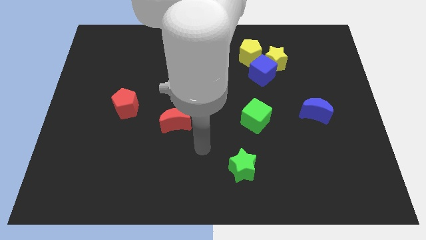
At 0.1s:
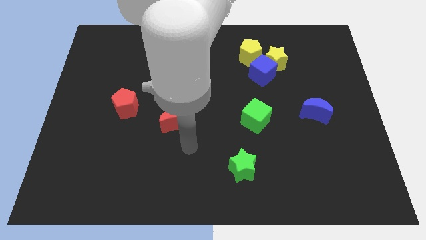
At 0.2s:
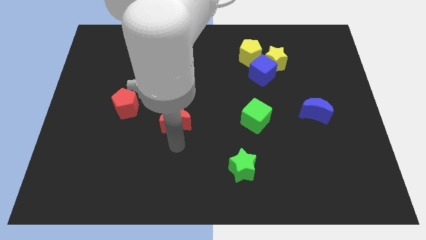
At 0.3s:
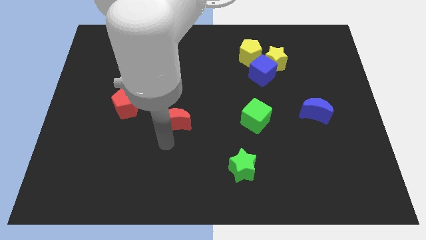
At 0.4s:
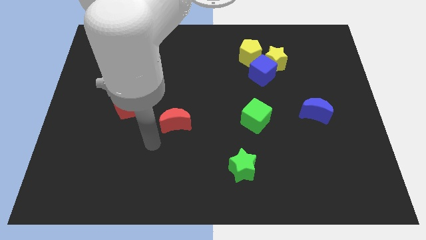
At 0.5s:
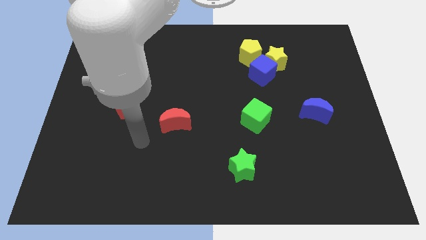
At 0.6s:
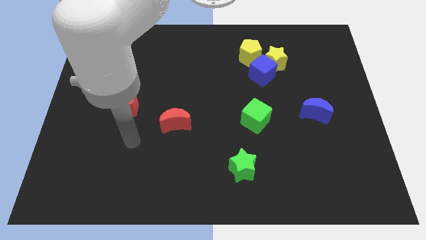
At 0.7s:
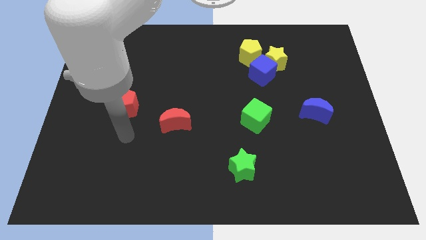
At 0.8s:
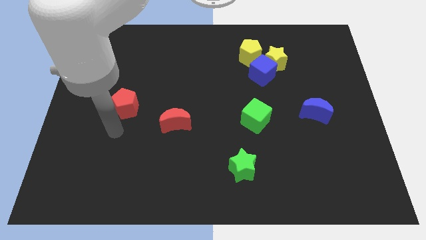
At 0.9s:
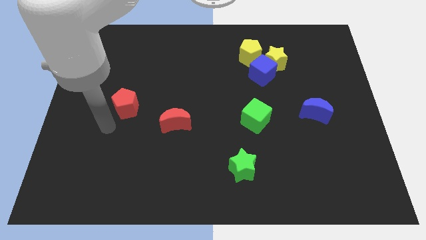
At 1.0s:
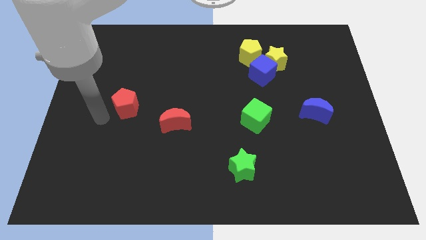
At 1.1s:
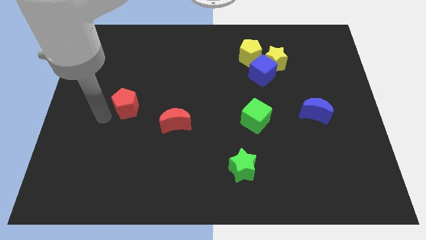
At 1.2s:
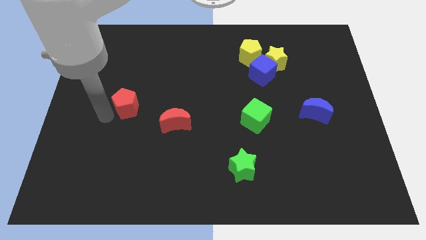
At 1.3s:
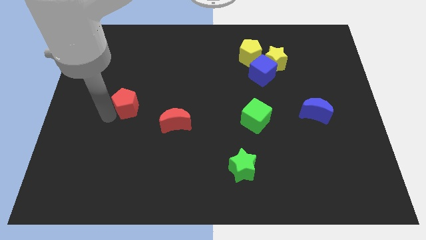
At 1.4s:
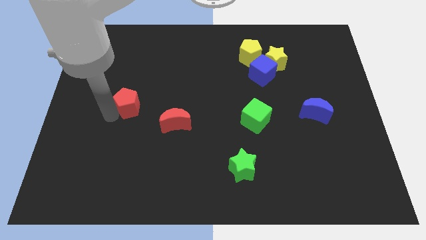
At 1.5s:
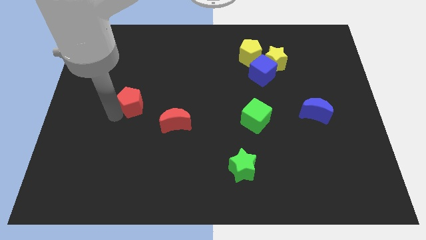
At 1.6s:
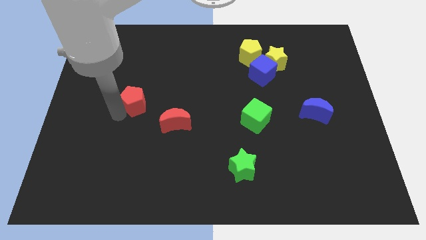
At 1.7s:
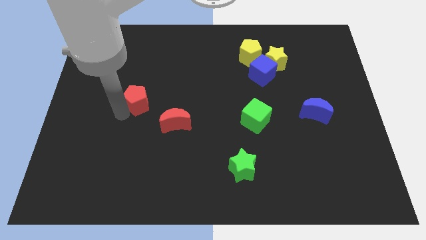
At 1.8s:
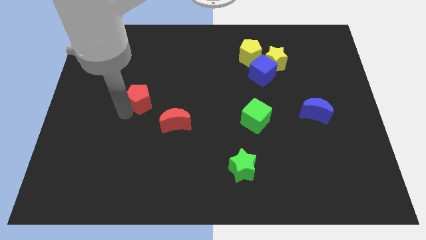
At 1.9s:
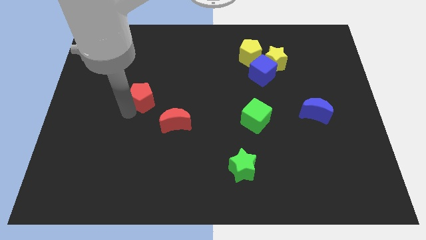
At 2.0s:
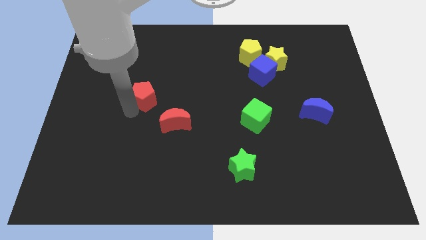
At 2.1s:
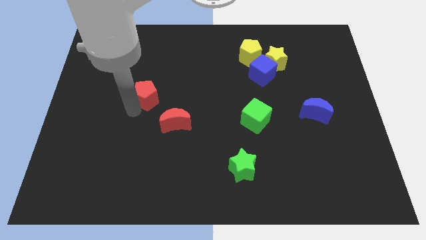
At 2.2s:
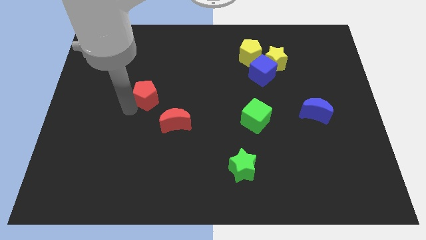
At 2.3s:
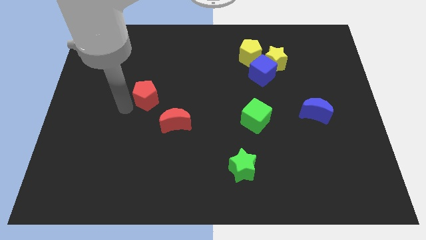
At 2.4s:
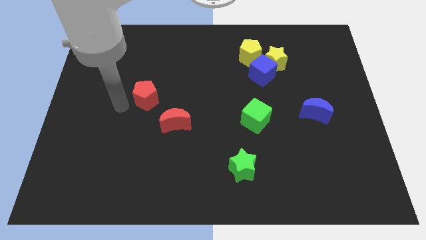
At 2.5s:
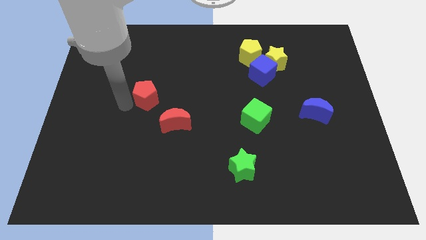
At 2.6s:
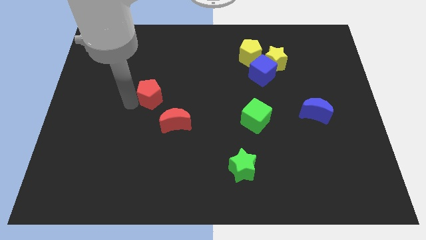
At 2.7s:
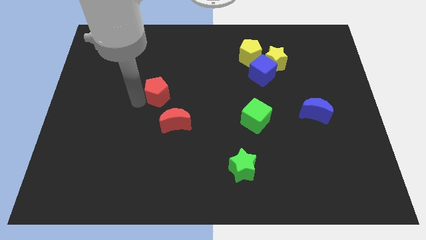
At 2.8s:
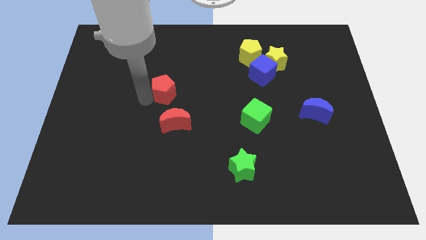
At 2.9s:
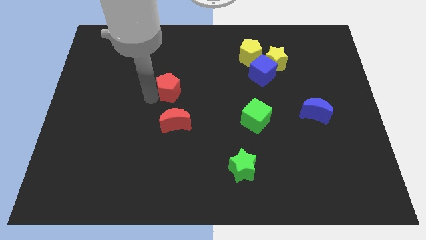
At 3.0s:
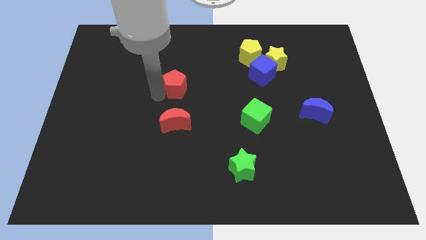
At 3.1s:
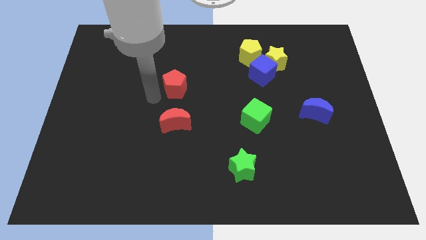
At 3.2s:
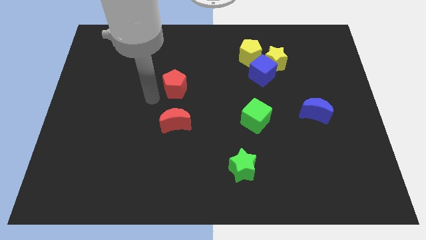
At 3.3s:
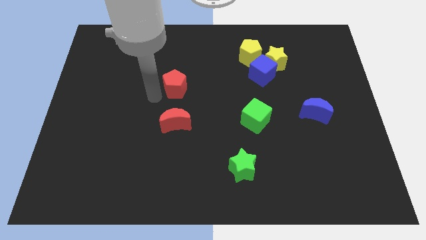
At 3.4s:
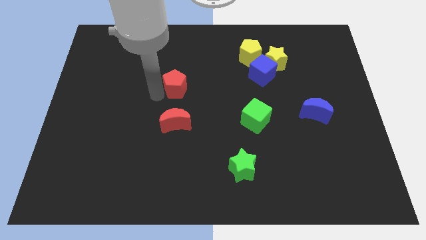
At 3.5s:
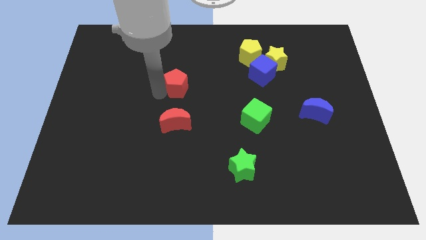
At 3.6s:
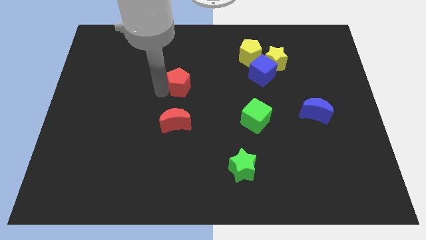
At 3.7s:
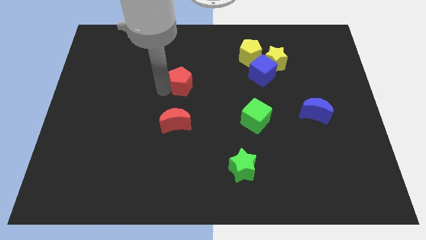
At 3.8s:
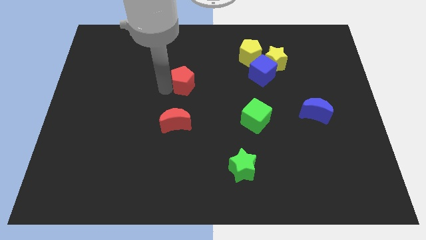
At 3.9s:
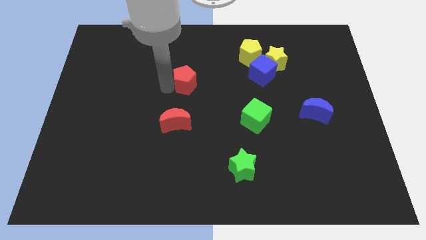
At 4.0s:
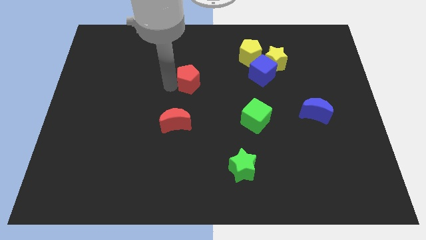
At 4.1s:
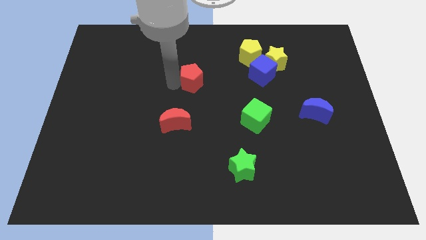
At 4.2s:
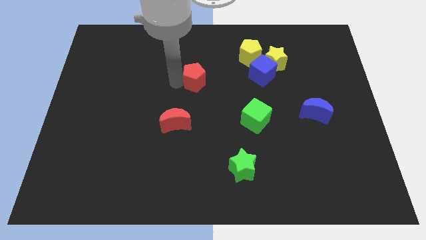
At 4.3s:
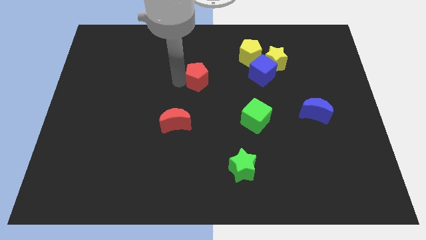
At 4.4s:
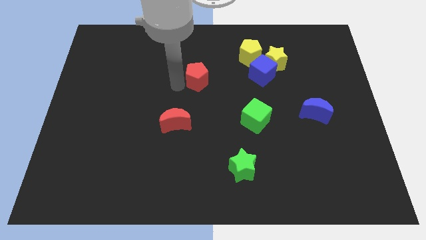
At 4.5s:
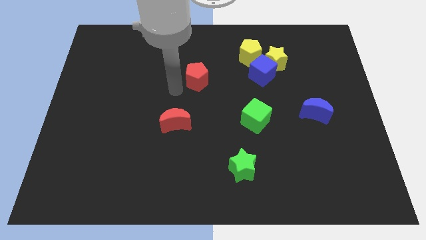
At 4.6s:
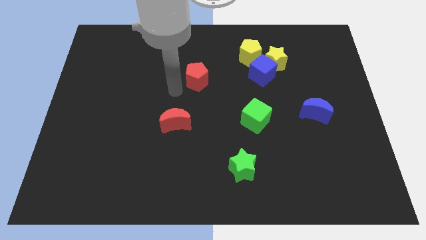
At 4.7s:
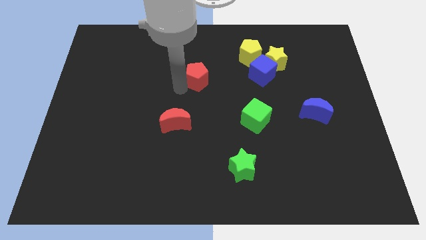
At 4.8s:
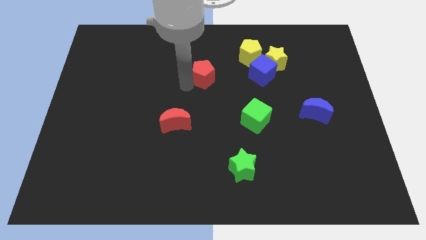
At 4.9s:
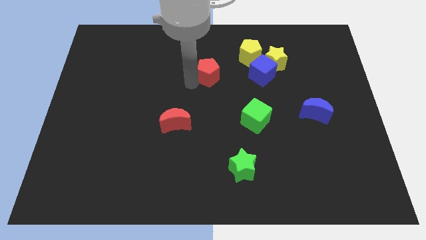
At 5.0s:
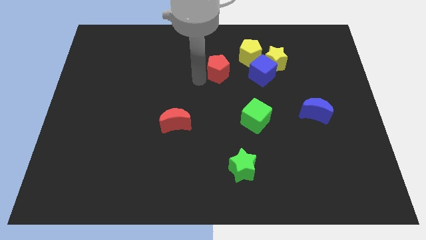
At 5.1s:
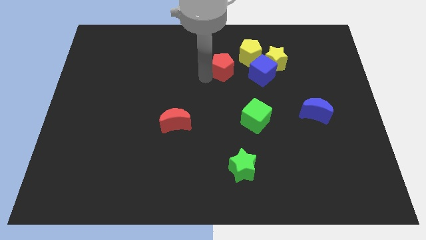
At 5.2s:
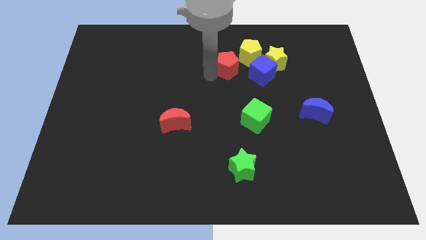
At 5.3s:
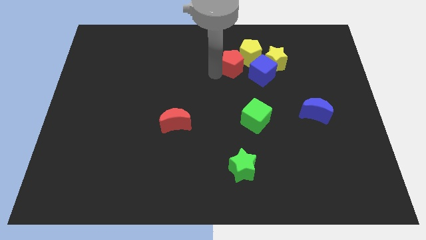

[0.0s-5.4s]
slide the red pentagon close to the yellow pentagon

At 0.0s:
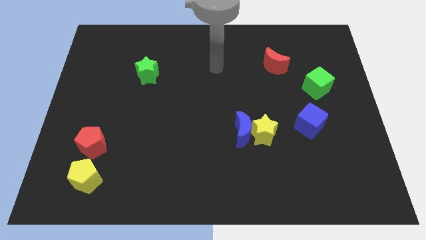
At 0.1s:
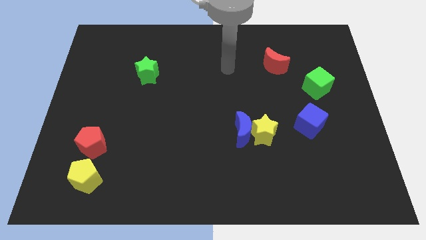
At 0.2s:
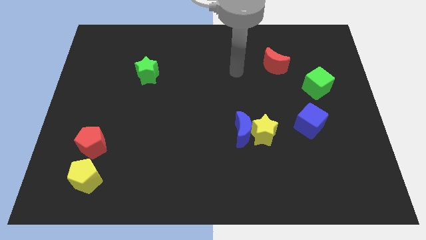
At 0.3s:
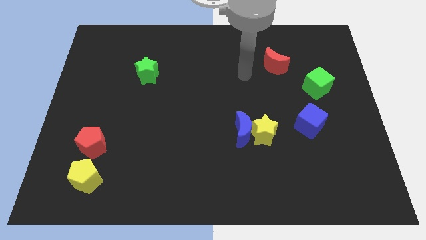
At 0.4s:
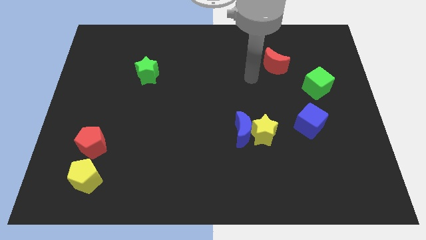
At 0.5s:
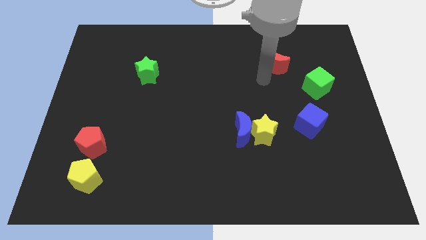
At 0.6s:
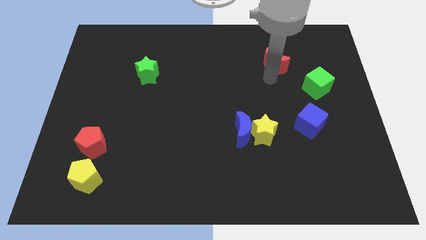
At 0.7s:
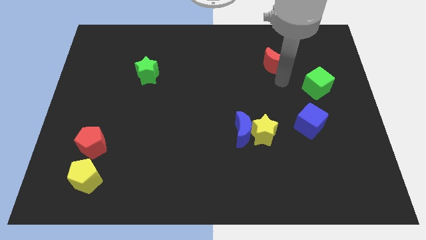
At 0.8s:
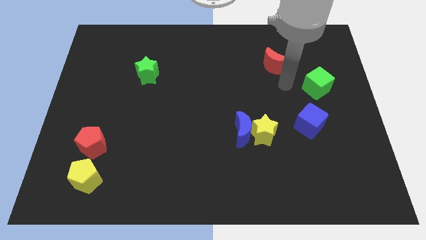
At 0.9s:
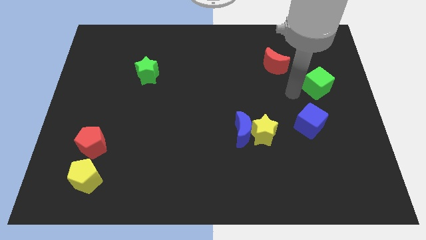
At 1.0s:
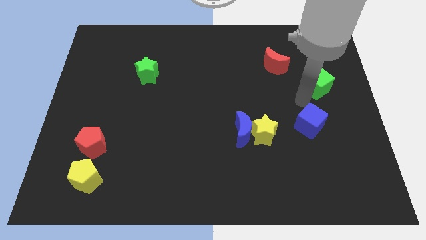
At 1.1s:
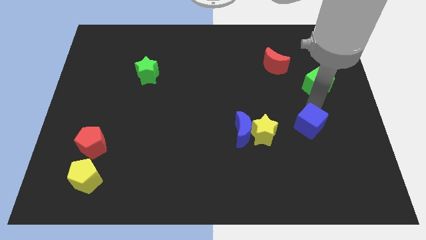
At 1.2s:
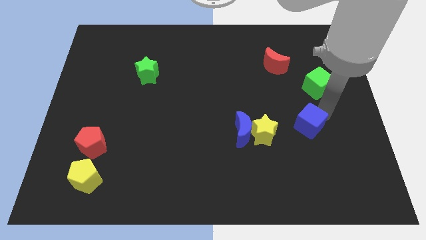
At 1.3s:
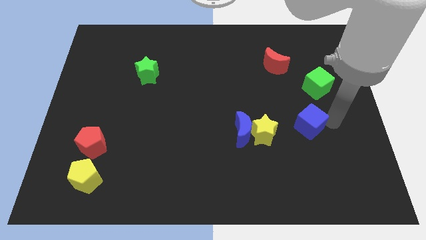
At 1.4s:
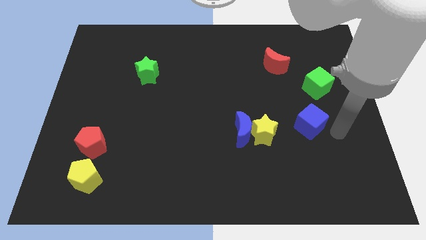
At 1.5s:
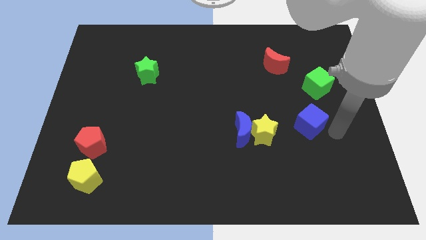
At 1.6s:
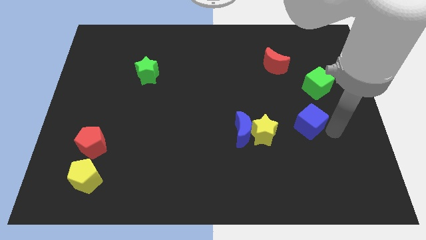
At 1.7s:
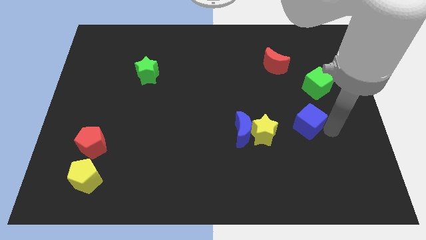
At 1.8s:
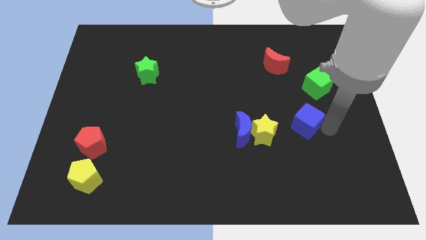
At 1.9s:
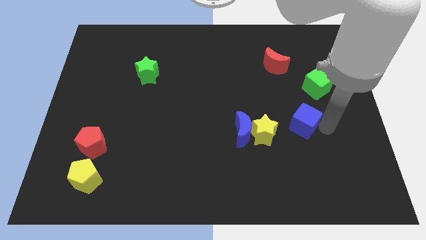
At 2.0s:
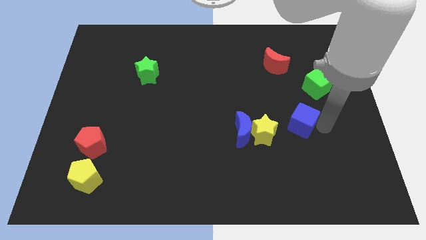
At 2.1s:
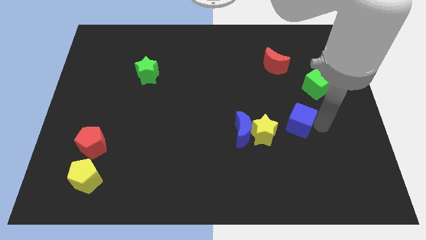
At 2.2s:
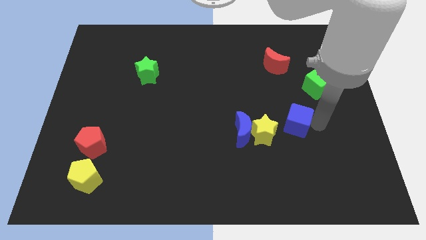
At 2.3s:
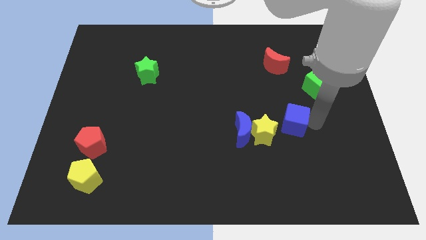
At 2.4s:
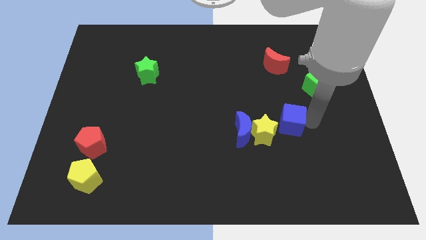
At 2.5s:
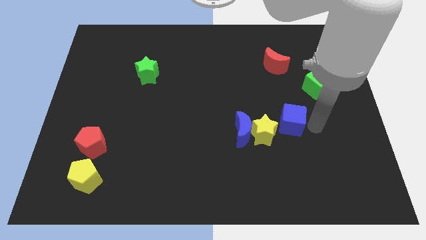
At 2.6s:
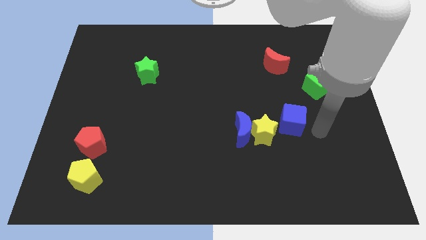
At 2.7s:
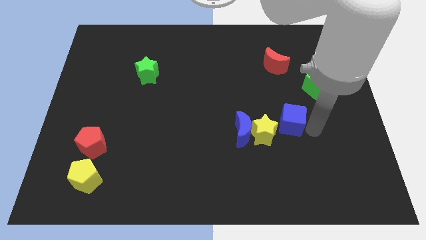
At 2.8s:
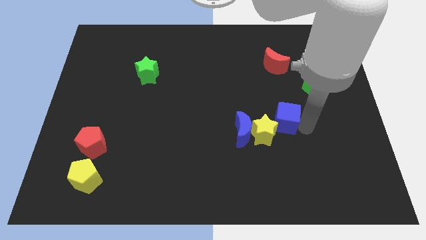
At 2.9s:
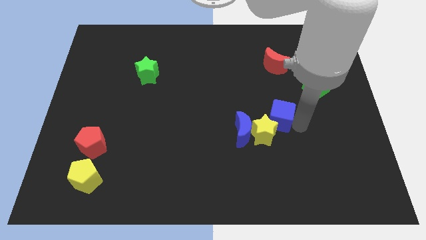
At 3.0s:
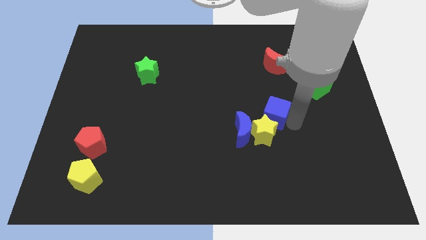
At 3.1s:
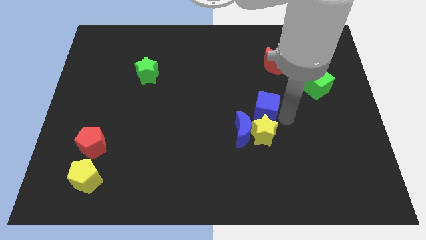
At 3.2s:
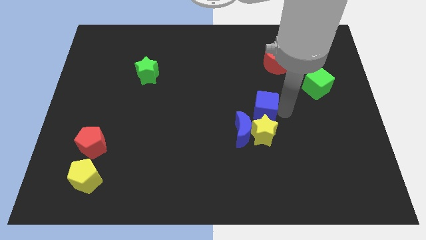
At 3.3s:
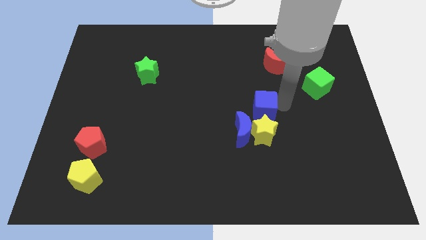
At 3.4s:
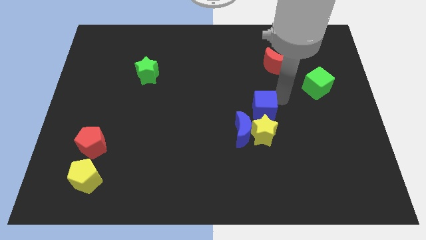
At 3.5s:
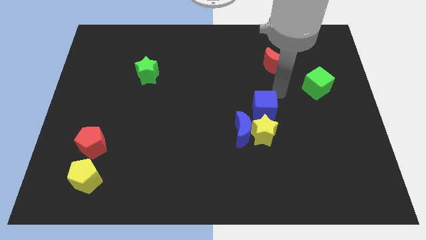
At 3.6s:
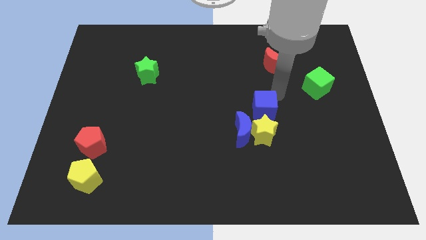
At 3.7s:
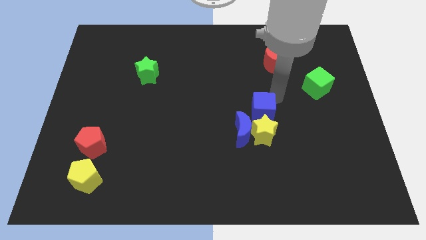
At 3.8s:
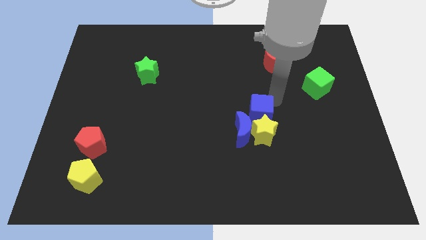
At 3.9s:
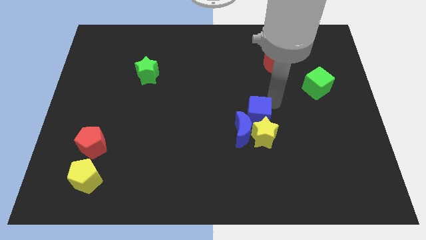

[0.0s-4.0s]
put the blue cube next to the blue moon
